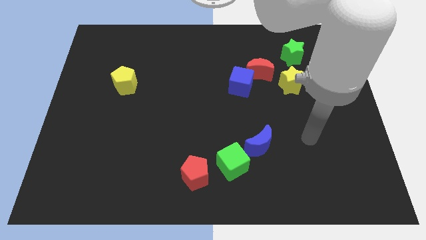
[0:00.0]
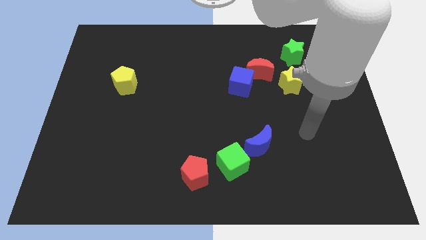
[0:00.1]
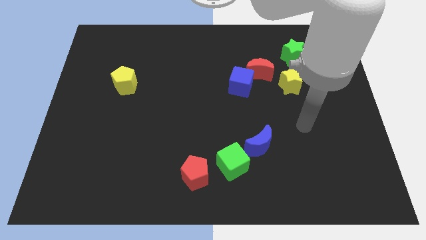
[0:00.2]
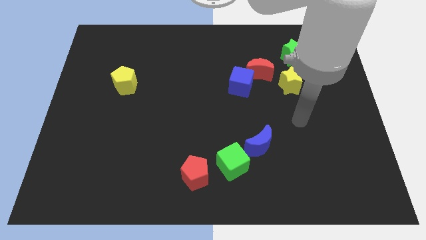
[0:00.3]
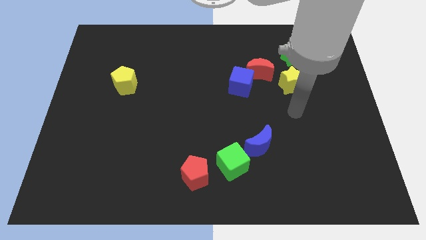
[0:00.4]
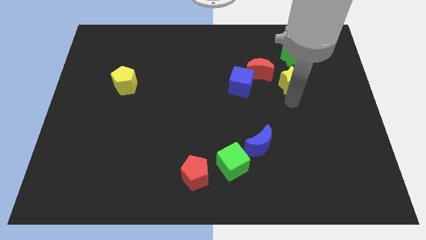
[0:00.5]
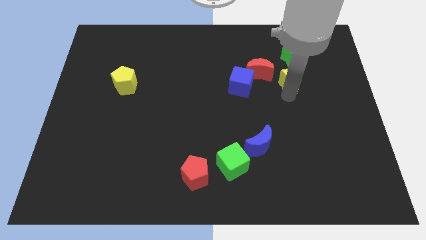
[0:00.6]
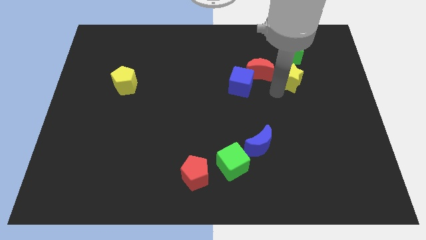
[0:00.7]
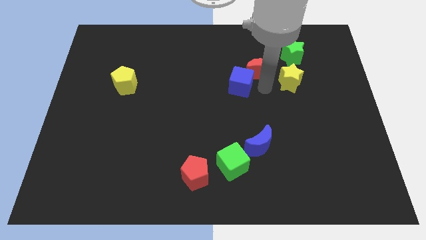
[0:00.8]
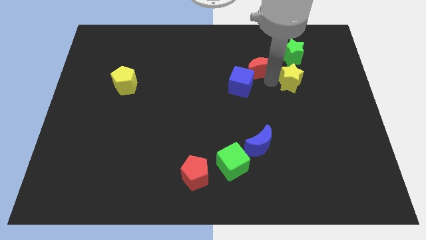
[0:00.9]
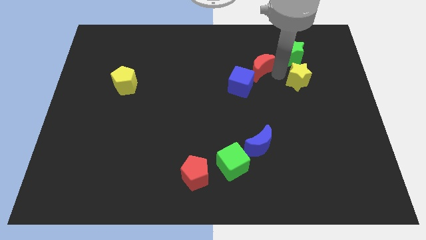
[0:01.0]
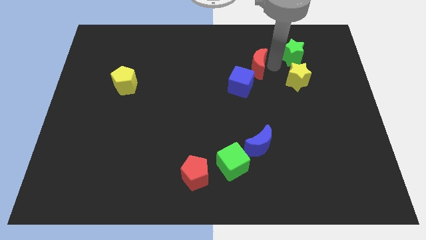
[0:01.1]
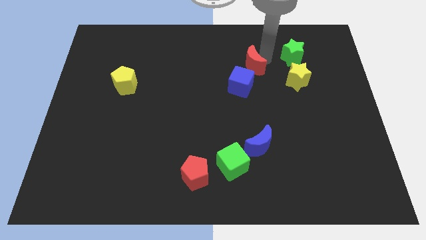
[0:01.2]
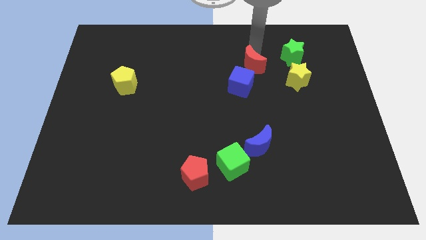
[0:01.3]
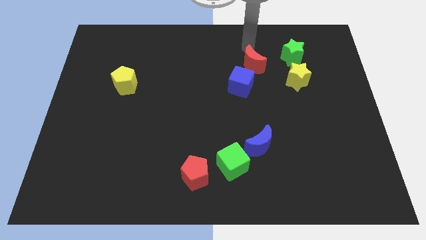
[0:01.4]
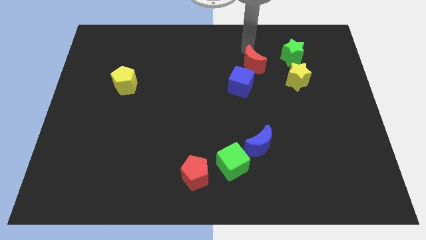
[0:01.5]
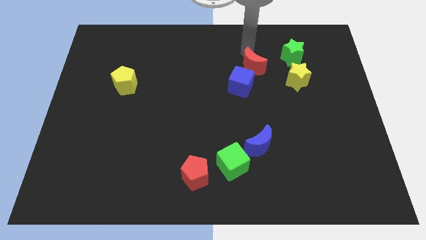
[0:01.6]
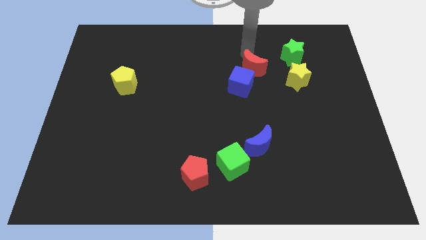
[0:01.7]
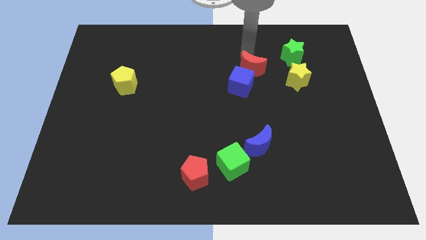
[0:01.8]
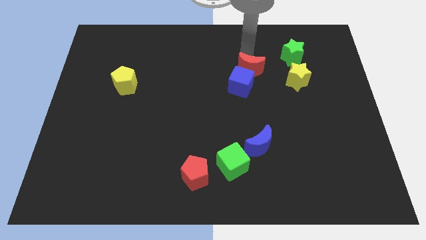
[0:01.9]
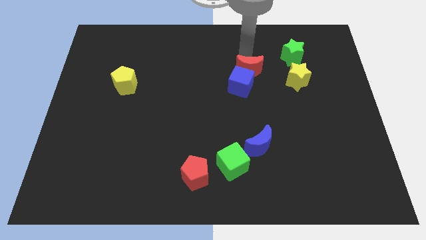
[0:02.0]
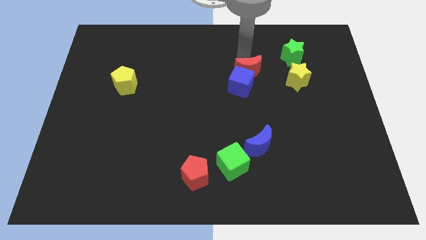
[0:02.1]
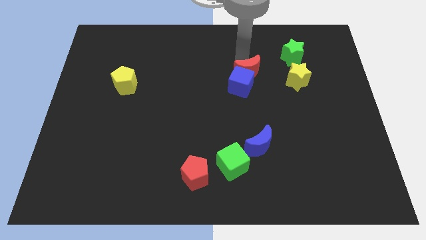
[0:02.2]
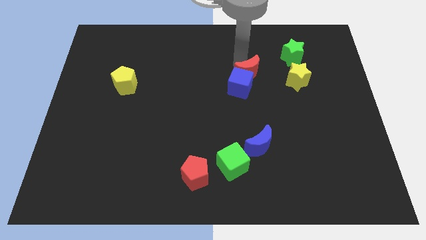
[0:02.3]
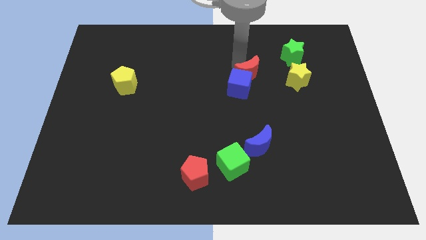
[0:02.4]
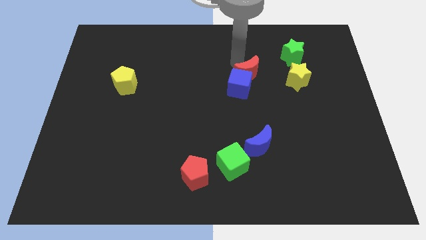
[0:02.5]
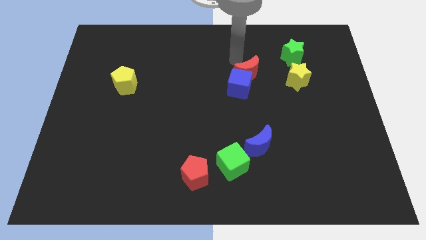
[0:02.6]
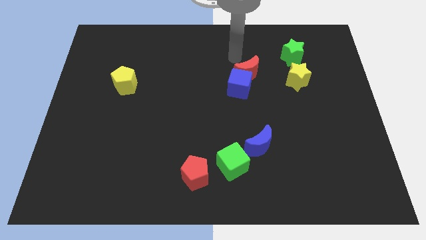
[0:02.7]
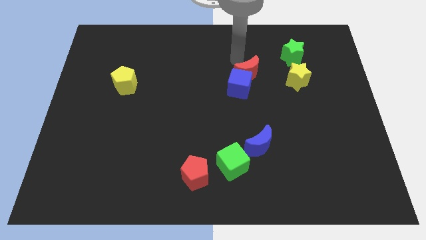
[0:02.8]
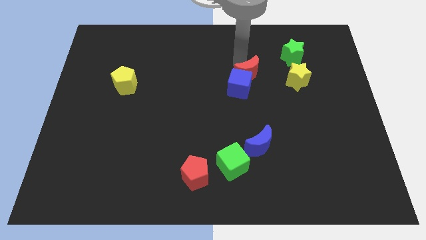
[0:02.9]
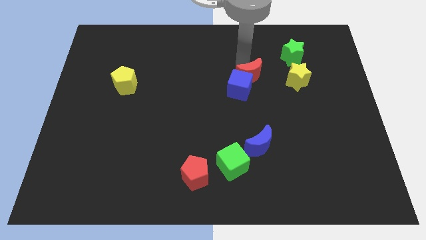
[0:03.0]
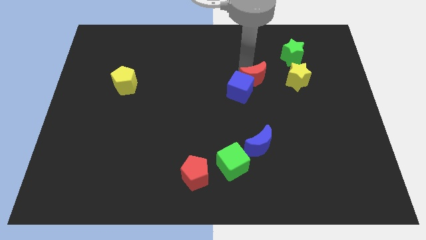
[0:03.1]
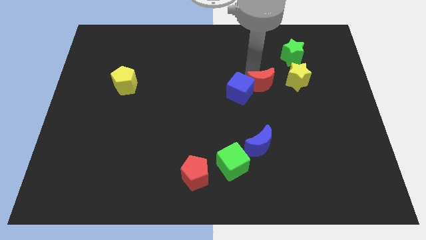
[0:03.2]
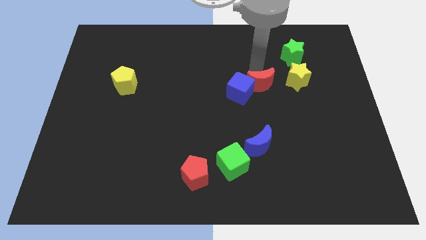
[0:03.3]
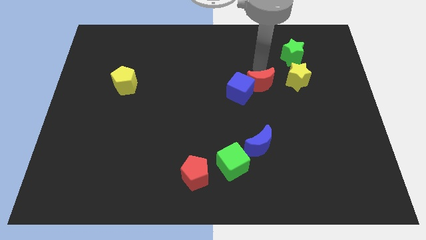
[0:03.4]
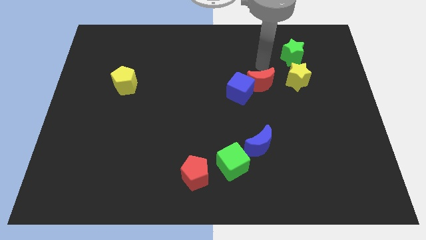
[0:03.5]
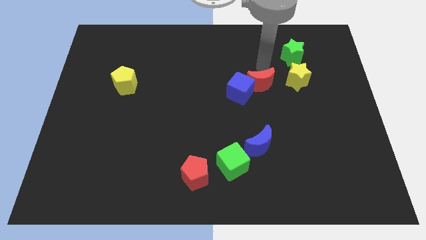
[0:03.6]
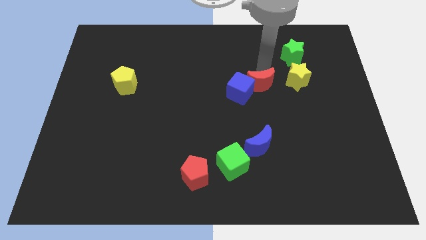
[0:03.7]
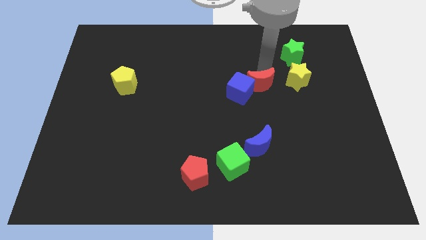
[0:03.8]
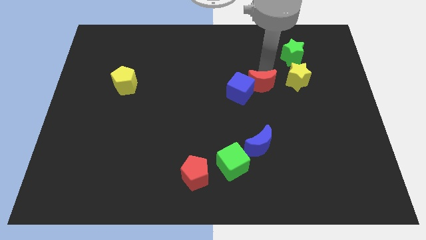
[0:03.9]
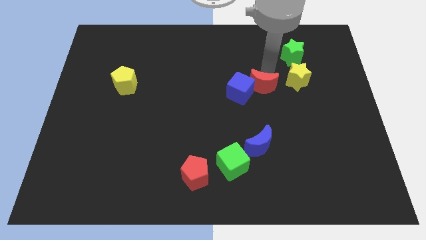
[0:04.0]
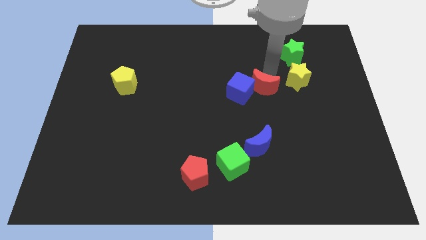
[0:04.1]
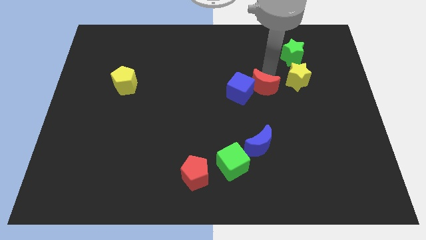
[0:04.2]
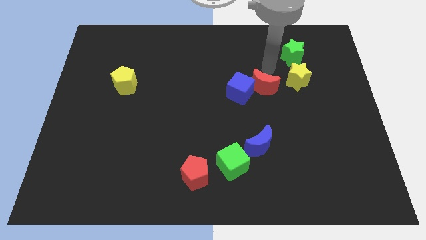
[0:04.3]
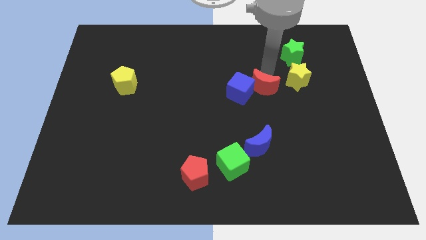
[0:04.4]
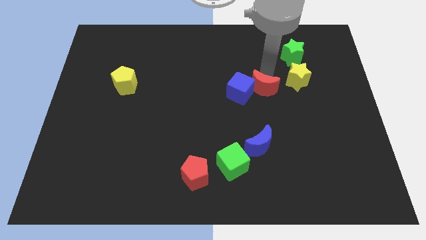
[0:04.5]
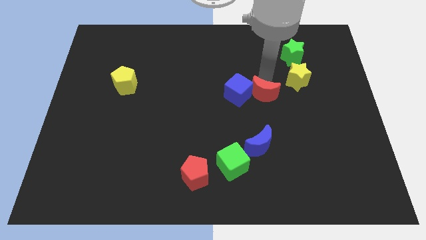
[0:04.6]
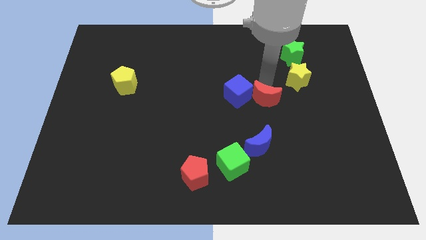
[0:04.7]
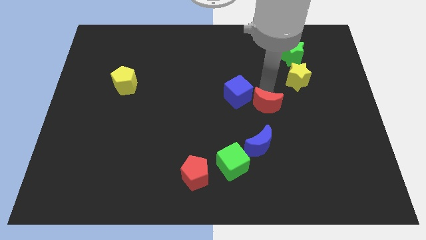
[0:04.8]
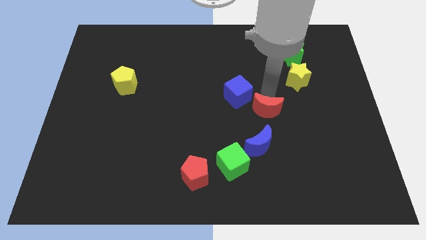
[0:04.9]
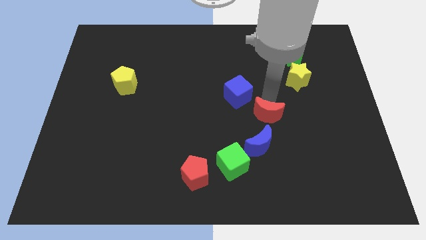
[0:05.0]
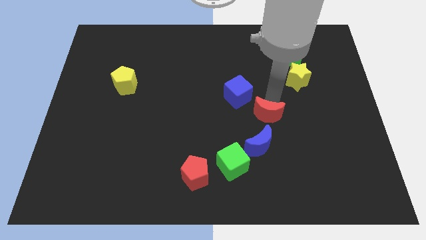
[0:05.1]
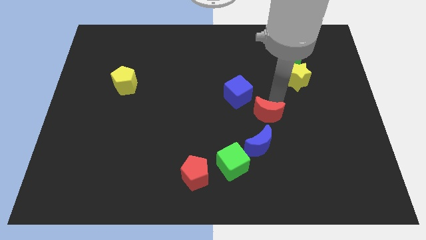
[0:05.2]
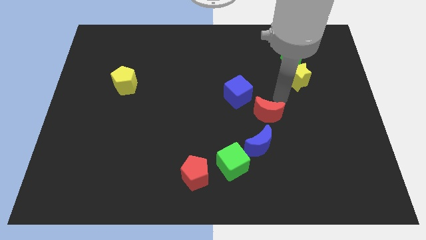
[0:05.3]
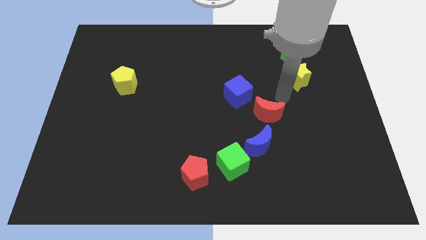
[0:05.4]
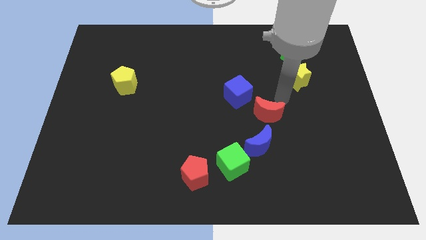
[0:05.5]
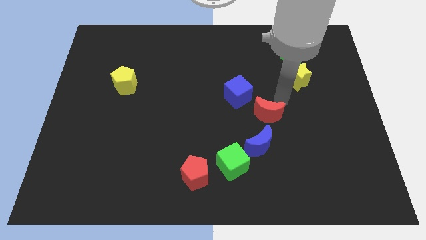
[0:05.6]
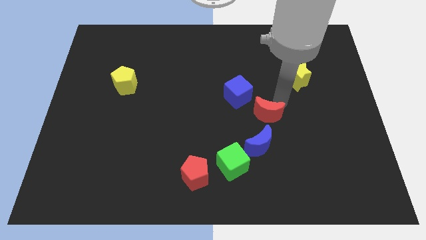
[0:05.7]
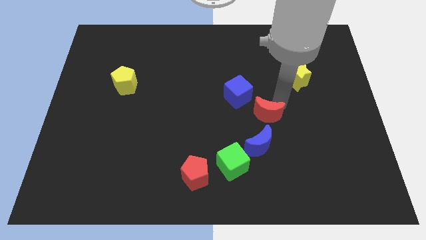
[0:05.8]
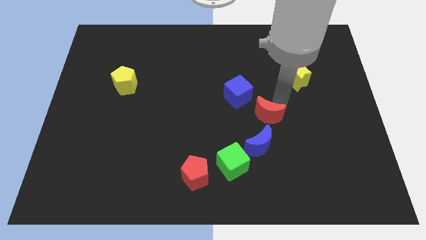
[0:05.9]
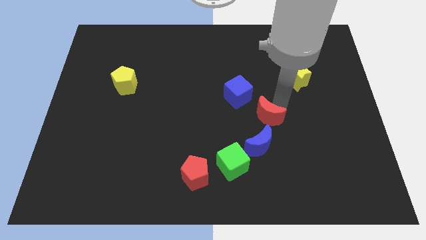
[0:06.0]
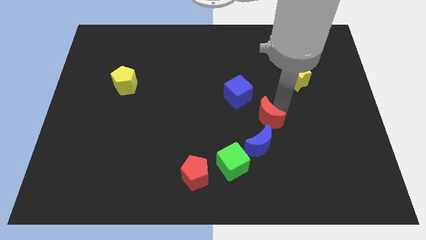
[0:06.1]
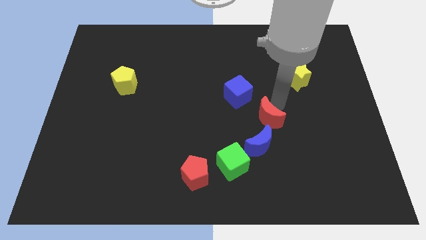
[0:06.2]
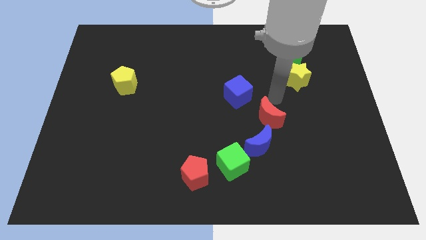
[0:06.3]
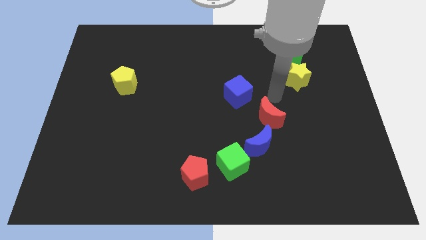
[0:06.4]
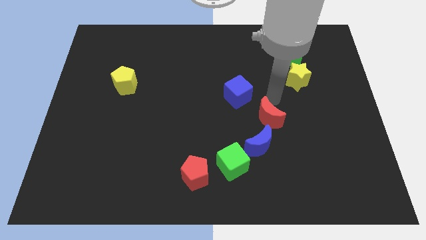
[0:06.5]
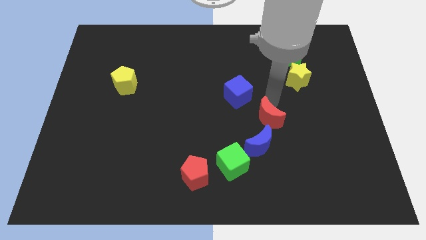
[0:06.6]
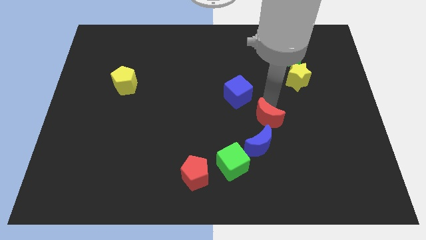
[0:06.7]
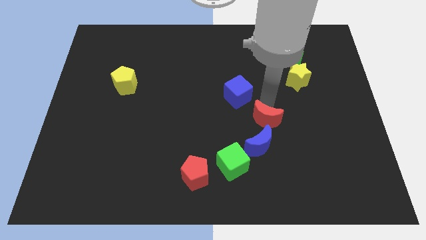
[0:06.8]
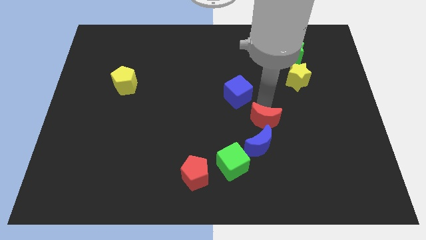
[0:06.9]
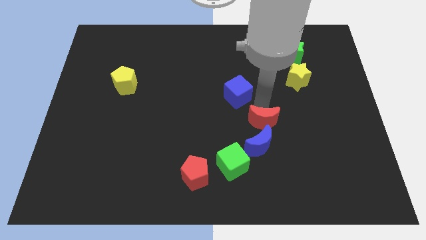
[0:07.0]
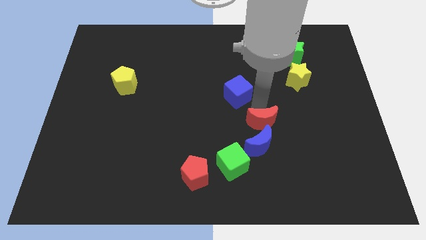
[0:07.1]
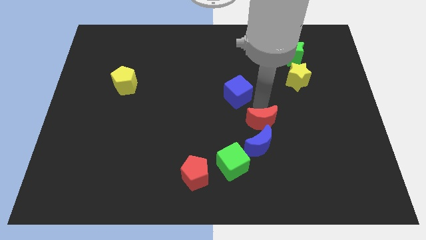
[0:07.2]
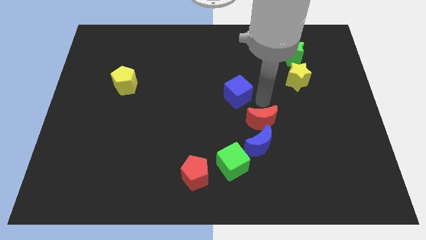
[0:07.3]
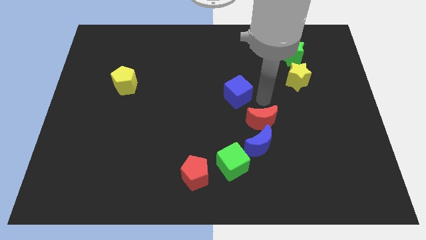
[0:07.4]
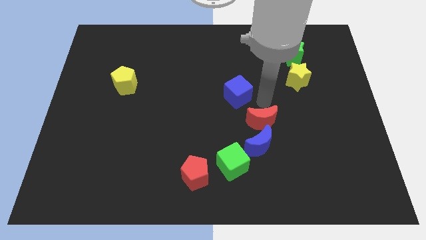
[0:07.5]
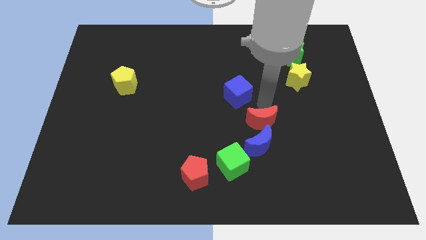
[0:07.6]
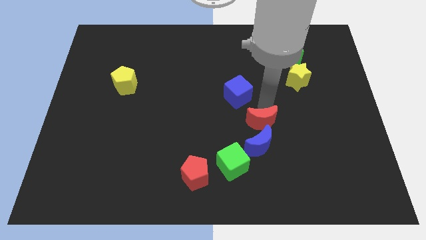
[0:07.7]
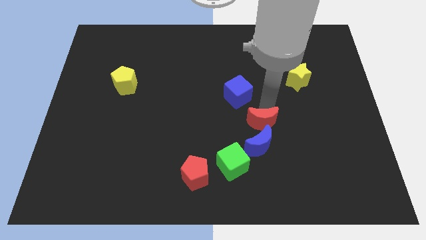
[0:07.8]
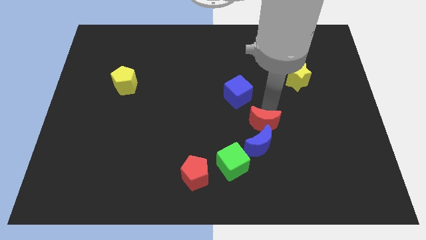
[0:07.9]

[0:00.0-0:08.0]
move the red moon to the blue moon
